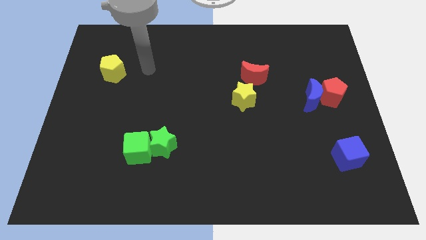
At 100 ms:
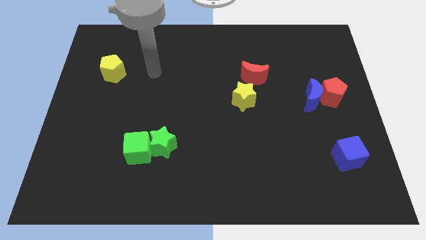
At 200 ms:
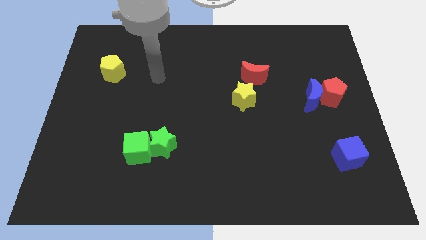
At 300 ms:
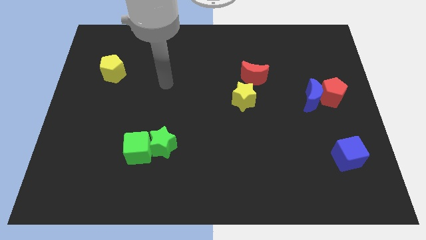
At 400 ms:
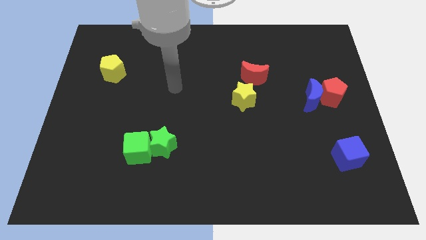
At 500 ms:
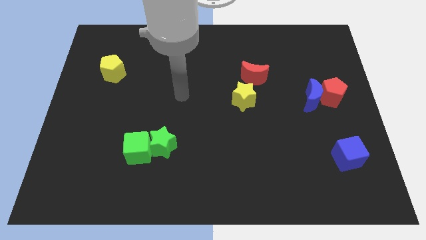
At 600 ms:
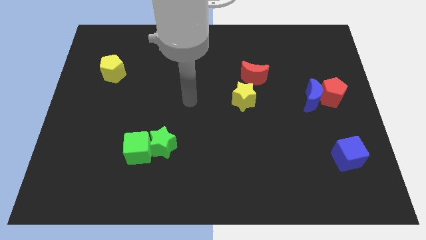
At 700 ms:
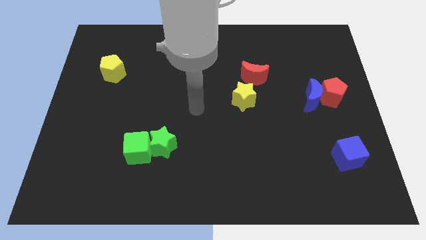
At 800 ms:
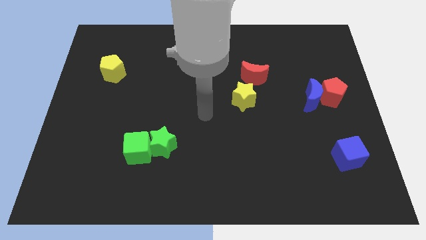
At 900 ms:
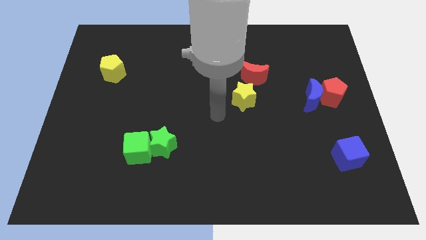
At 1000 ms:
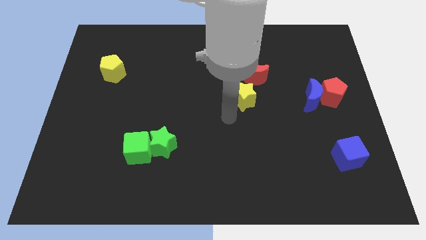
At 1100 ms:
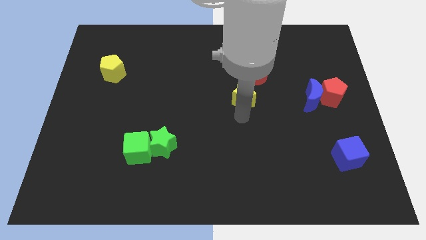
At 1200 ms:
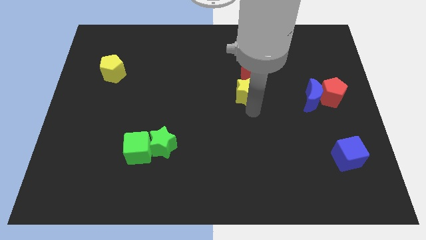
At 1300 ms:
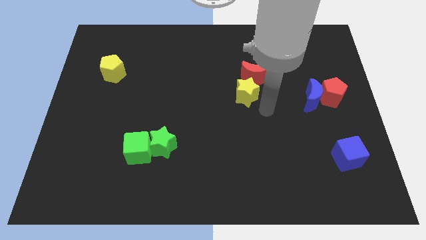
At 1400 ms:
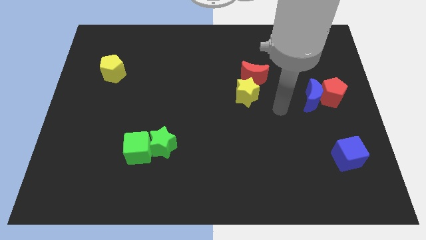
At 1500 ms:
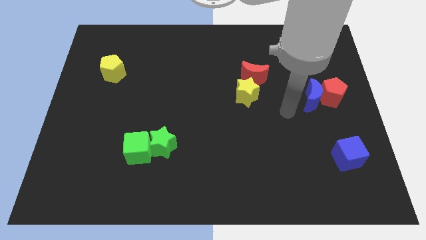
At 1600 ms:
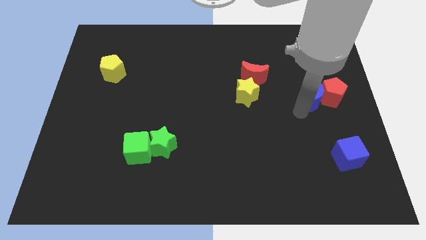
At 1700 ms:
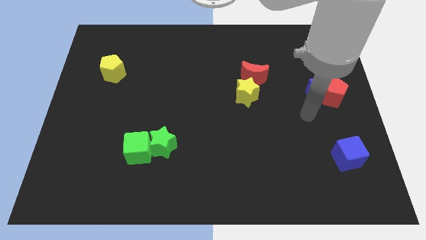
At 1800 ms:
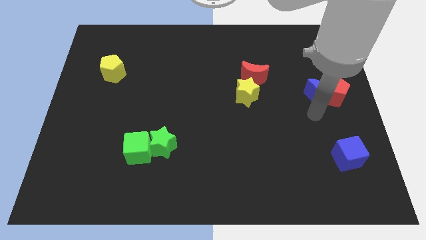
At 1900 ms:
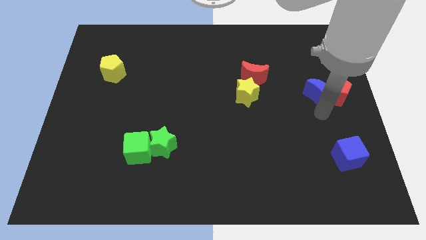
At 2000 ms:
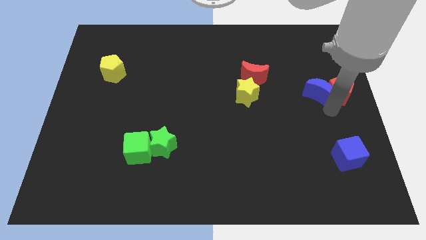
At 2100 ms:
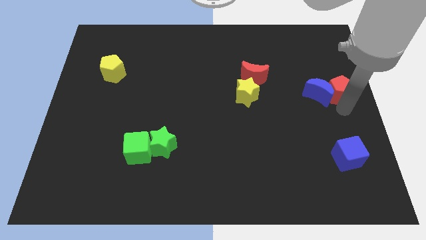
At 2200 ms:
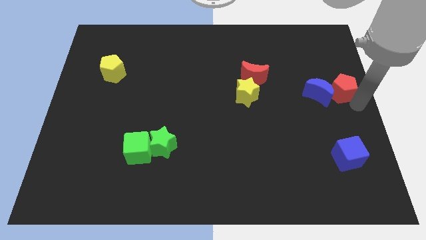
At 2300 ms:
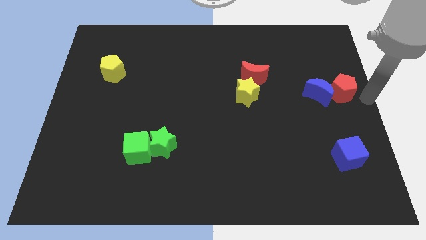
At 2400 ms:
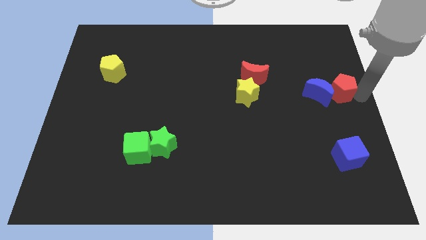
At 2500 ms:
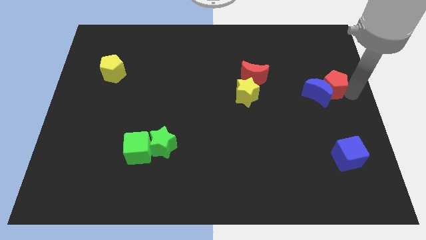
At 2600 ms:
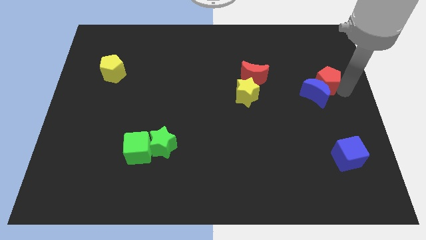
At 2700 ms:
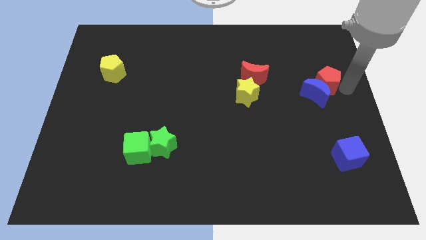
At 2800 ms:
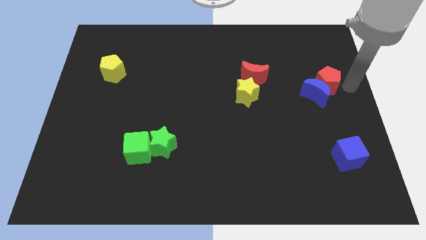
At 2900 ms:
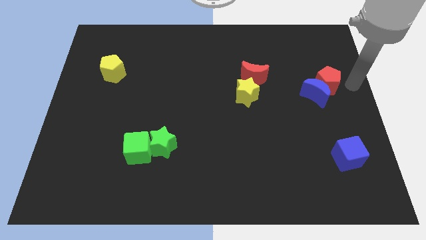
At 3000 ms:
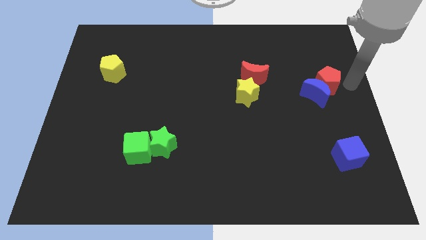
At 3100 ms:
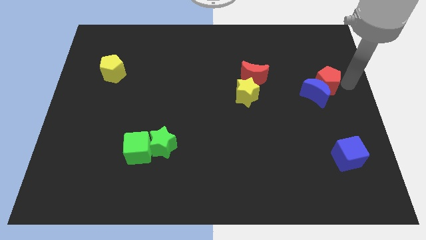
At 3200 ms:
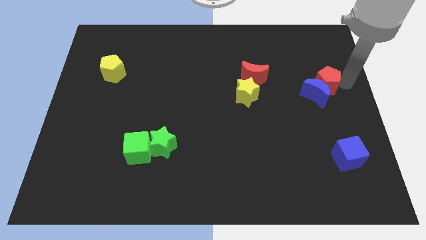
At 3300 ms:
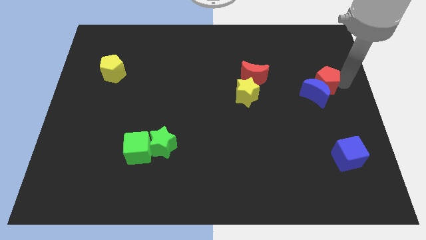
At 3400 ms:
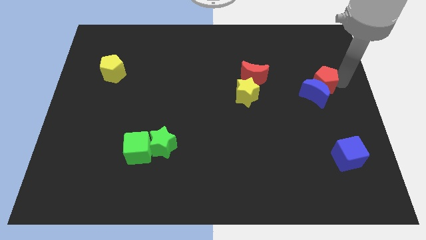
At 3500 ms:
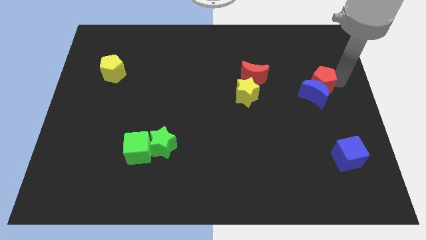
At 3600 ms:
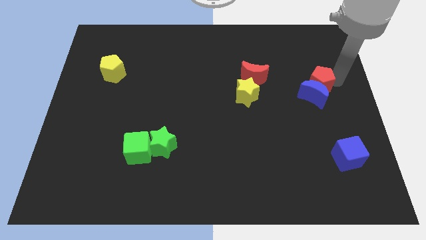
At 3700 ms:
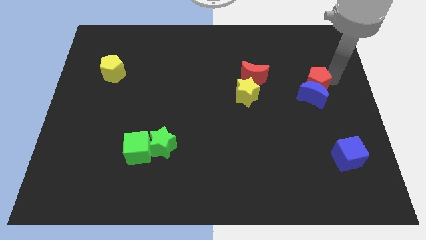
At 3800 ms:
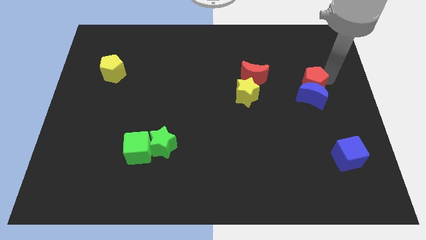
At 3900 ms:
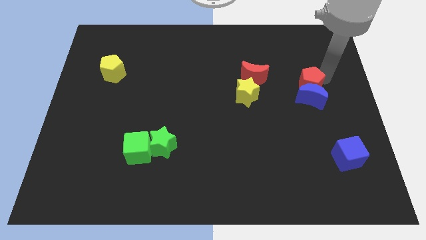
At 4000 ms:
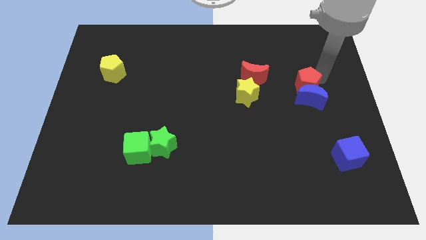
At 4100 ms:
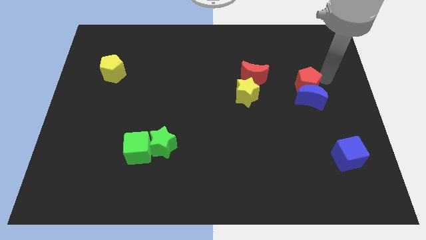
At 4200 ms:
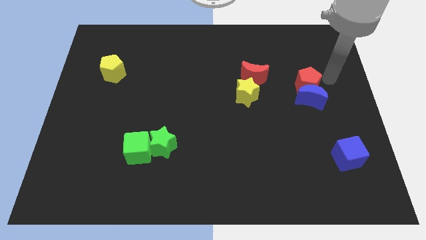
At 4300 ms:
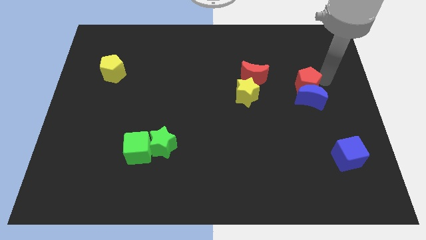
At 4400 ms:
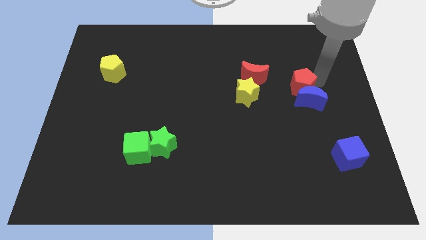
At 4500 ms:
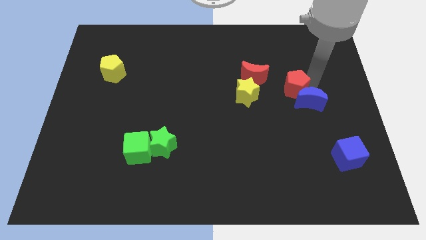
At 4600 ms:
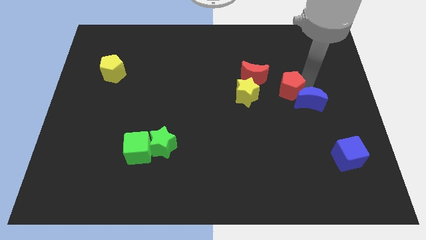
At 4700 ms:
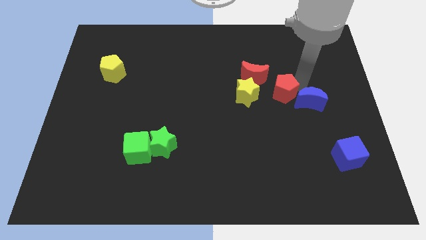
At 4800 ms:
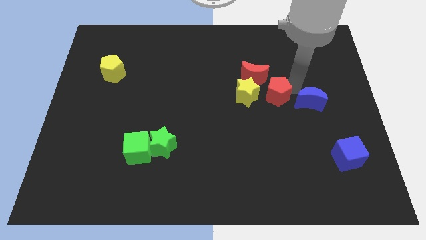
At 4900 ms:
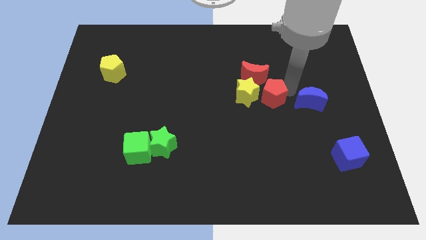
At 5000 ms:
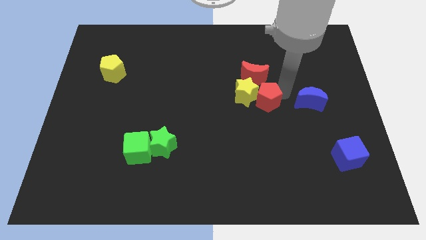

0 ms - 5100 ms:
push the red pentagon towards the yellow star

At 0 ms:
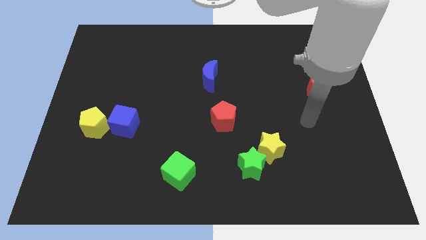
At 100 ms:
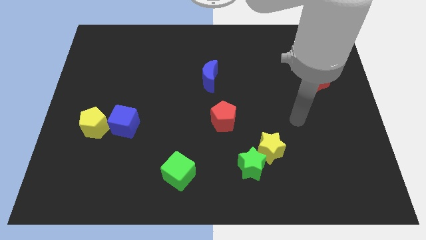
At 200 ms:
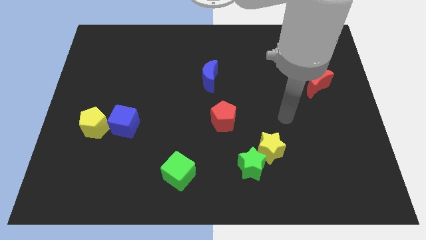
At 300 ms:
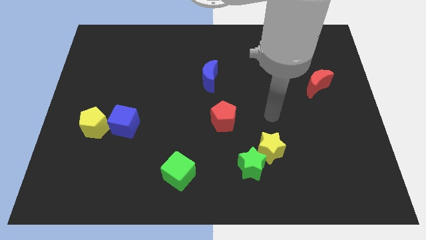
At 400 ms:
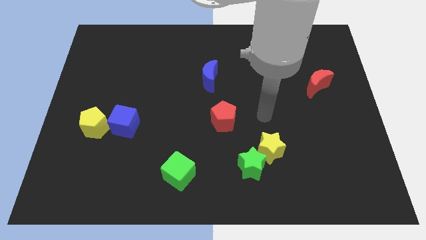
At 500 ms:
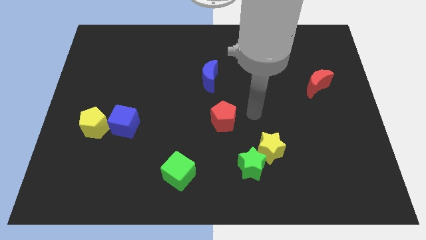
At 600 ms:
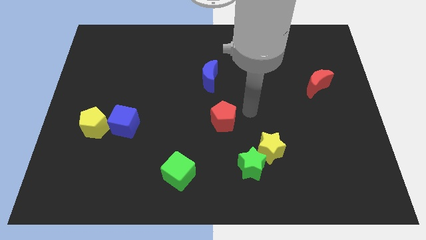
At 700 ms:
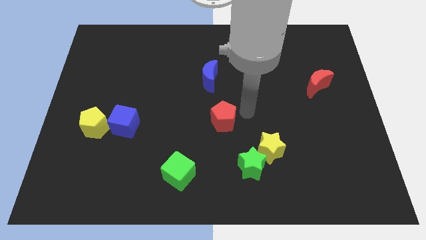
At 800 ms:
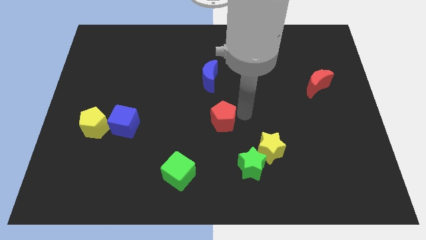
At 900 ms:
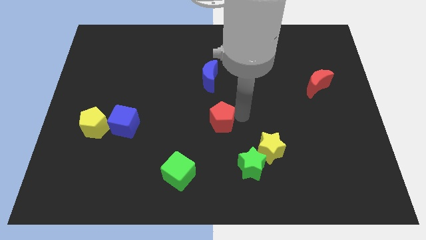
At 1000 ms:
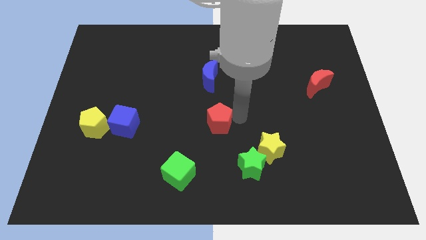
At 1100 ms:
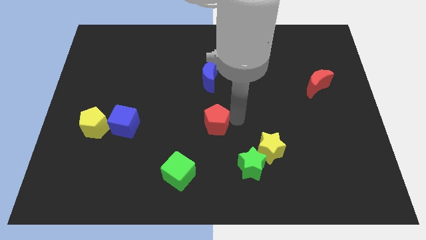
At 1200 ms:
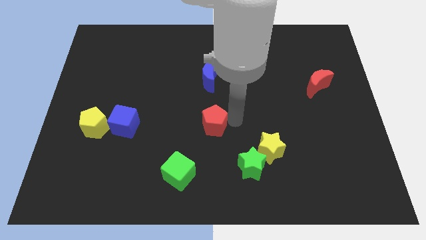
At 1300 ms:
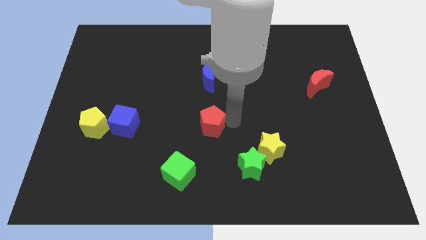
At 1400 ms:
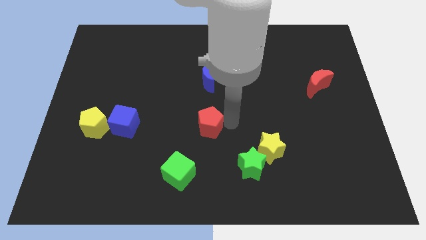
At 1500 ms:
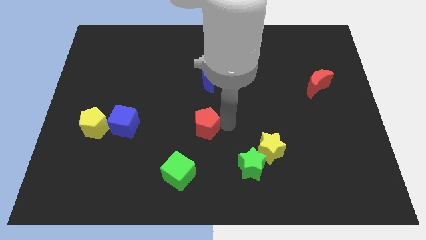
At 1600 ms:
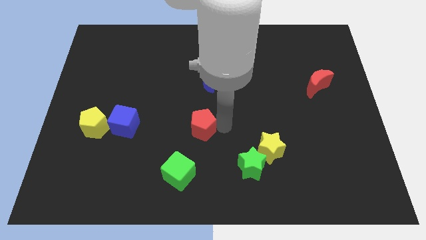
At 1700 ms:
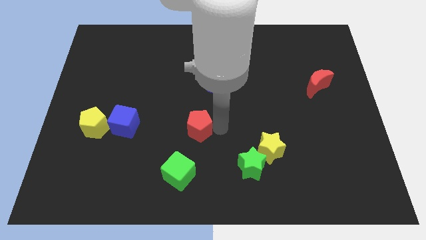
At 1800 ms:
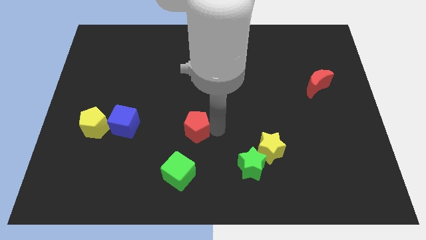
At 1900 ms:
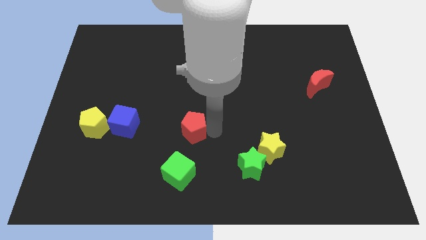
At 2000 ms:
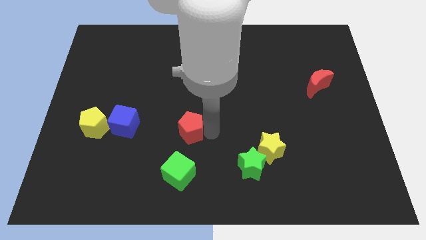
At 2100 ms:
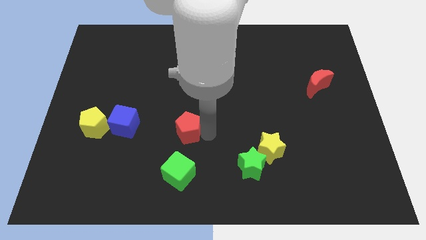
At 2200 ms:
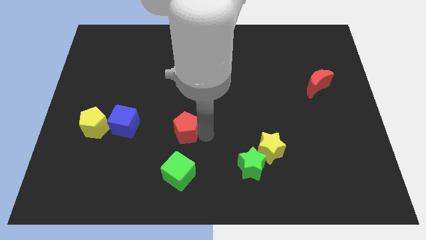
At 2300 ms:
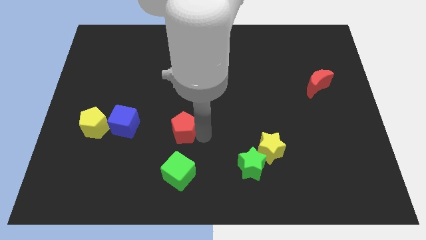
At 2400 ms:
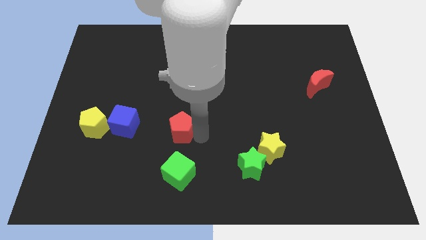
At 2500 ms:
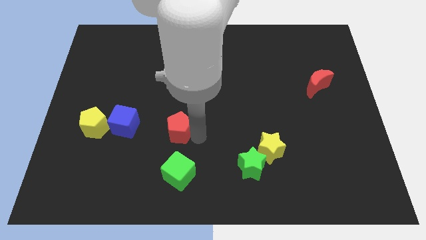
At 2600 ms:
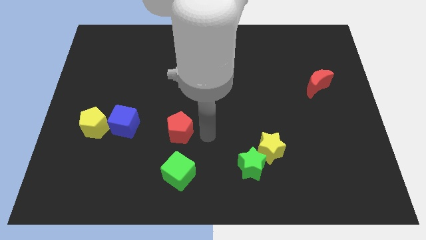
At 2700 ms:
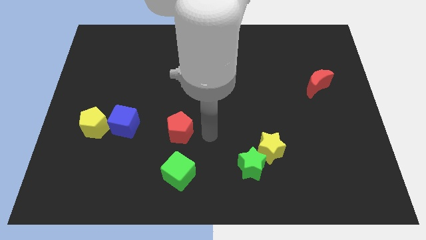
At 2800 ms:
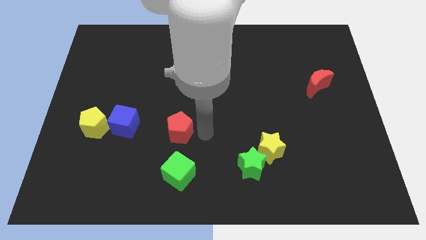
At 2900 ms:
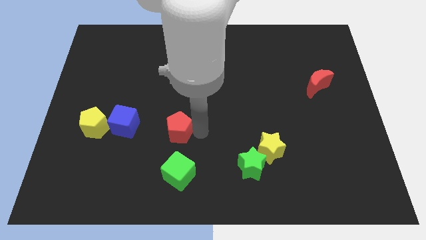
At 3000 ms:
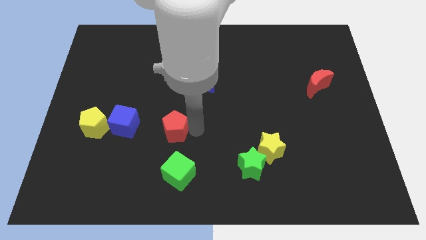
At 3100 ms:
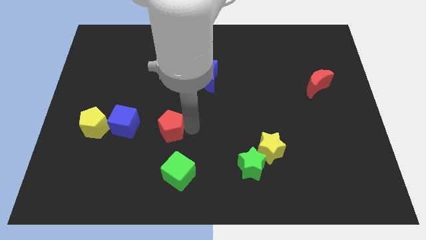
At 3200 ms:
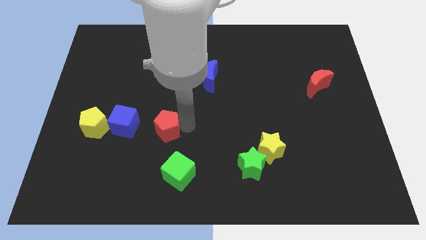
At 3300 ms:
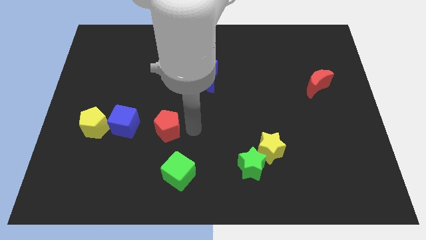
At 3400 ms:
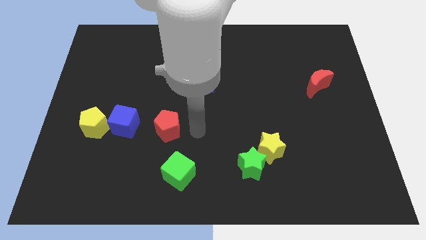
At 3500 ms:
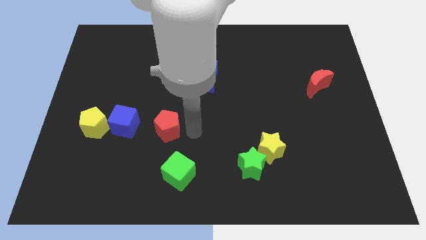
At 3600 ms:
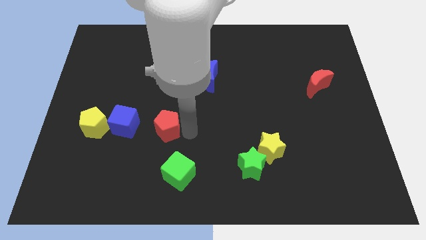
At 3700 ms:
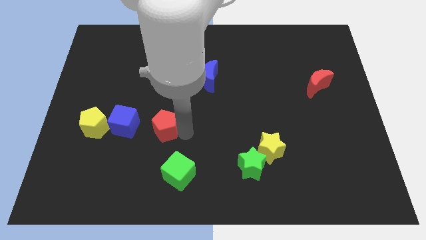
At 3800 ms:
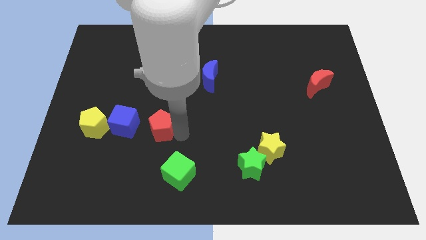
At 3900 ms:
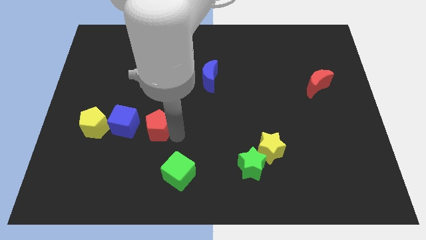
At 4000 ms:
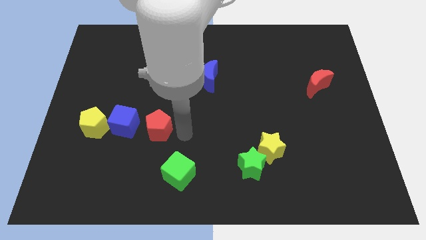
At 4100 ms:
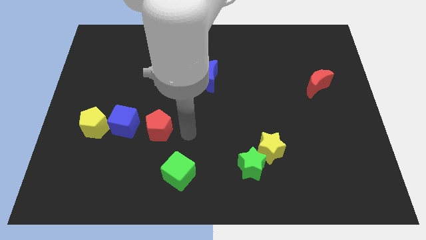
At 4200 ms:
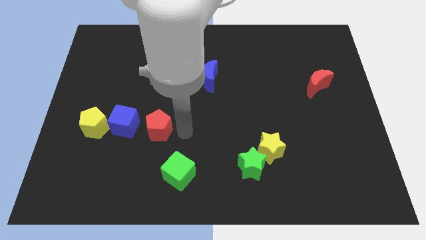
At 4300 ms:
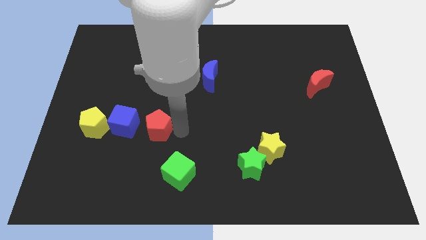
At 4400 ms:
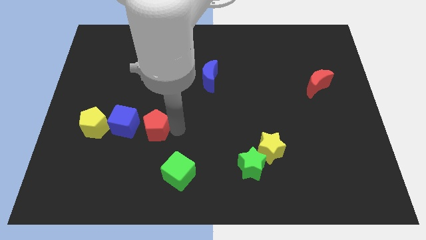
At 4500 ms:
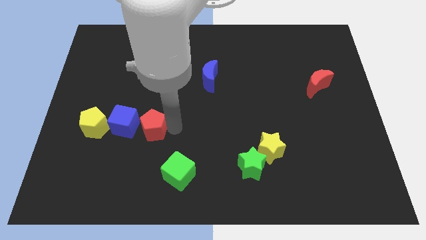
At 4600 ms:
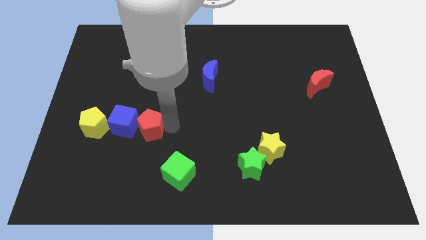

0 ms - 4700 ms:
put the red pentagon towards the blue cube
